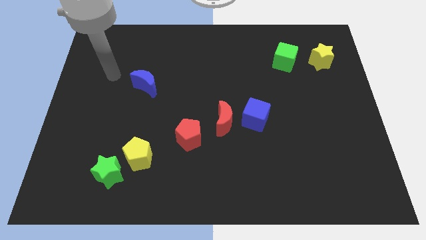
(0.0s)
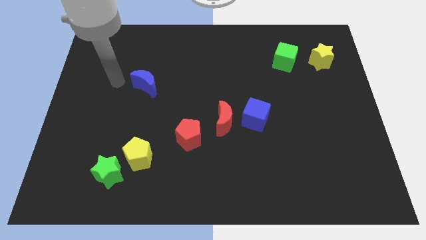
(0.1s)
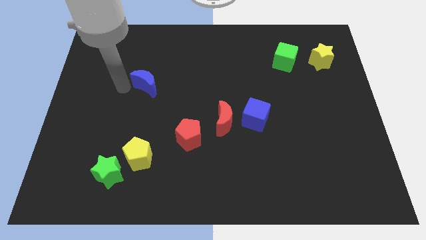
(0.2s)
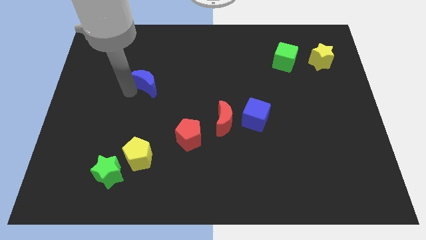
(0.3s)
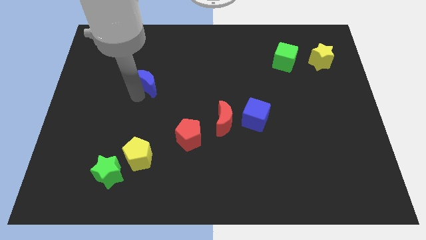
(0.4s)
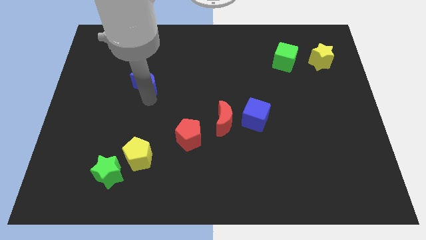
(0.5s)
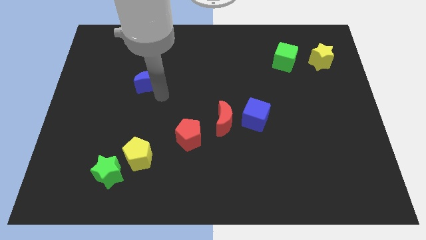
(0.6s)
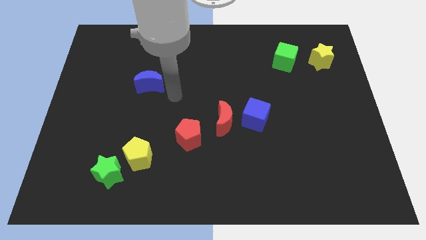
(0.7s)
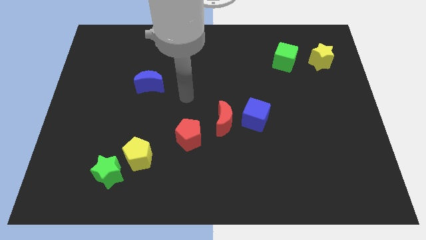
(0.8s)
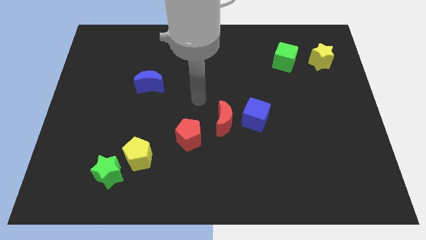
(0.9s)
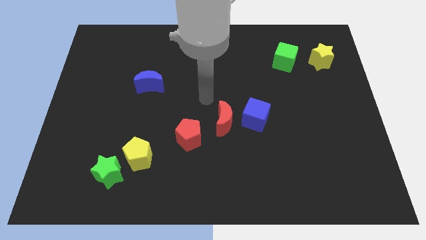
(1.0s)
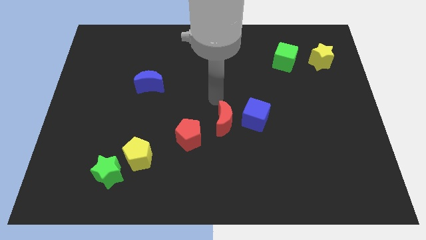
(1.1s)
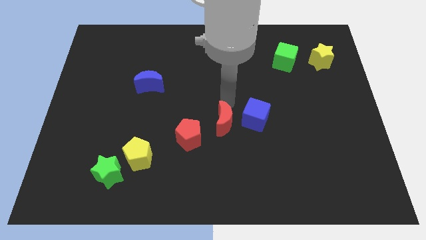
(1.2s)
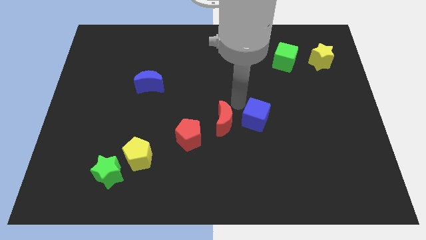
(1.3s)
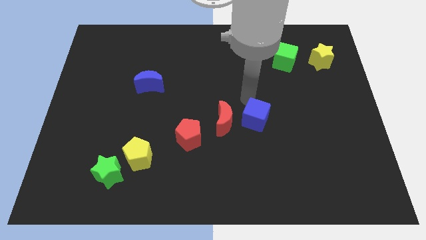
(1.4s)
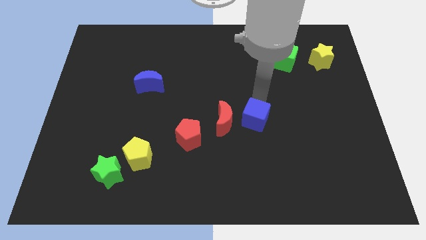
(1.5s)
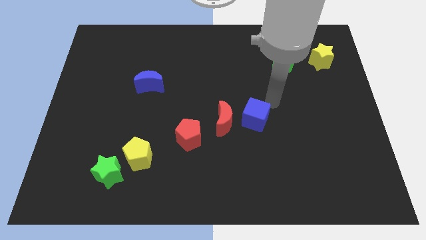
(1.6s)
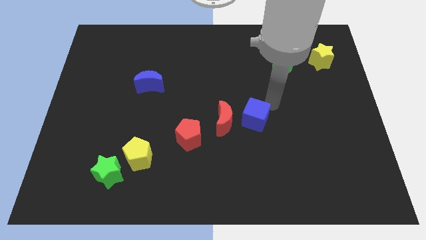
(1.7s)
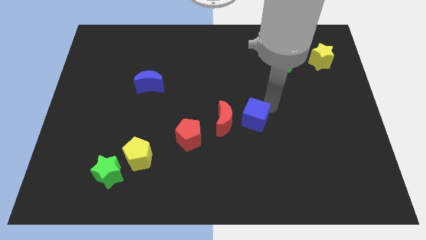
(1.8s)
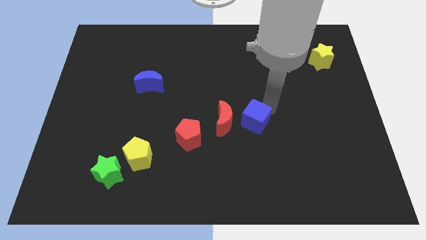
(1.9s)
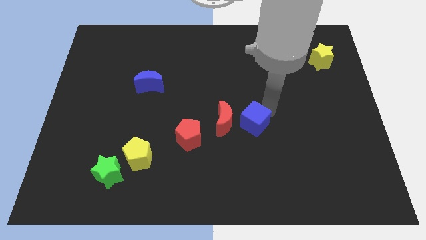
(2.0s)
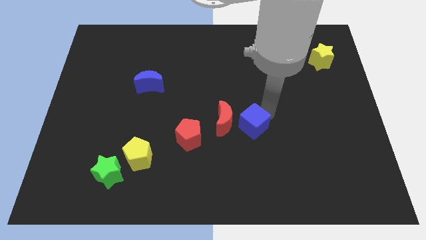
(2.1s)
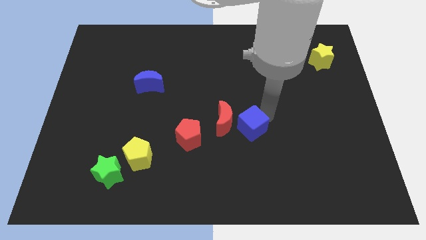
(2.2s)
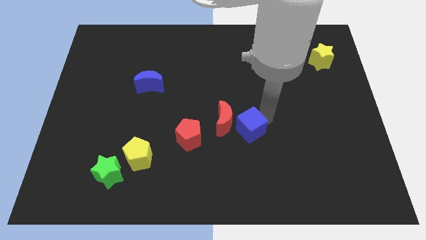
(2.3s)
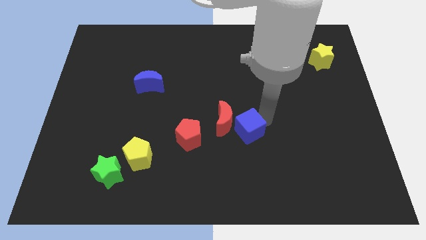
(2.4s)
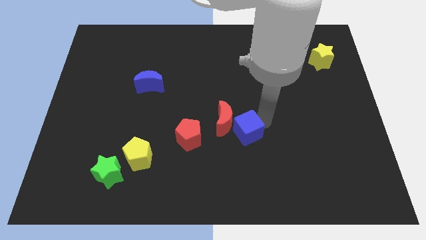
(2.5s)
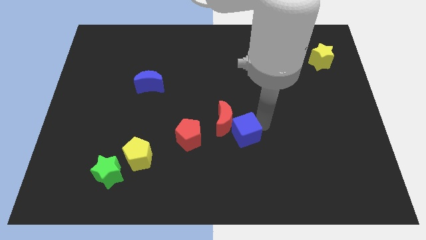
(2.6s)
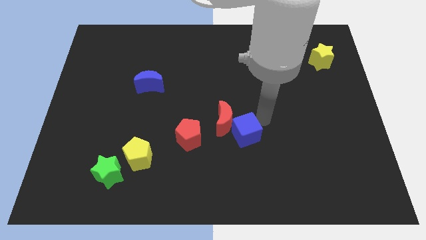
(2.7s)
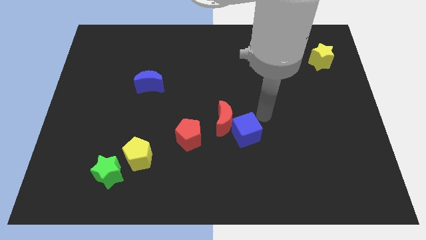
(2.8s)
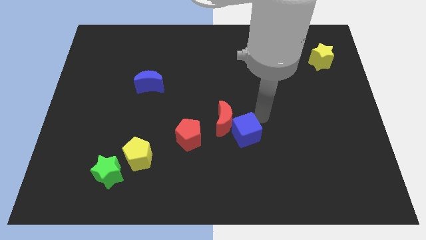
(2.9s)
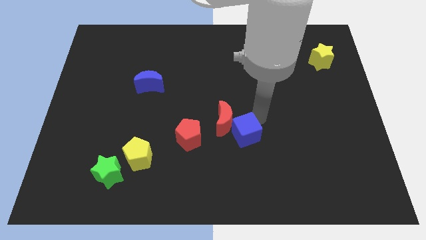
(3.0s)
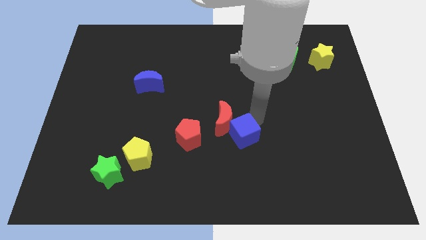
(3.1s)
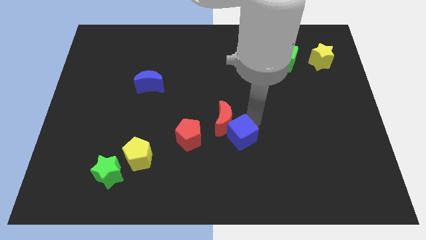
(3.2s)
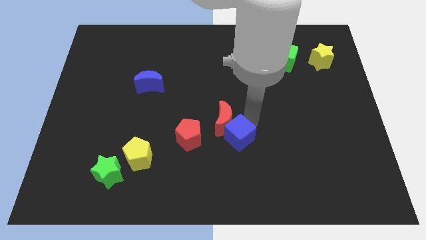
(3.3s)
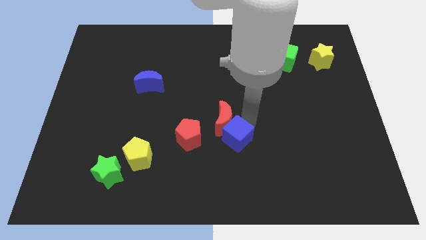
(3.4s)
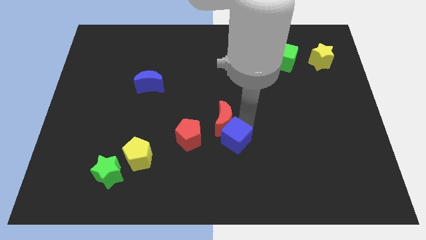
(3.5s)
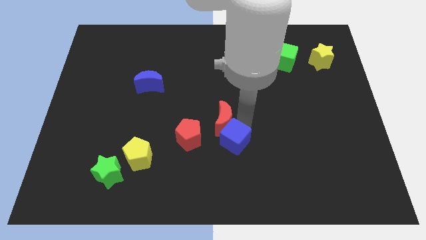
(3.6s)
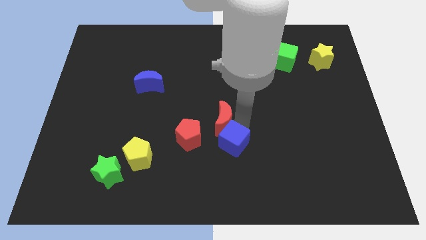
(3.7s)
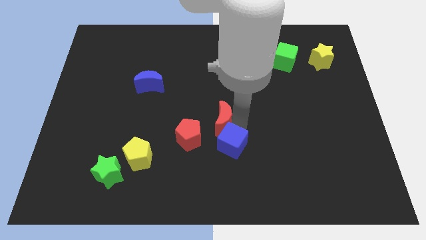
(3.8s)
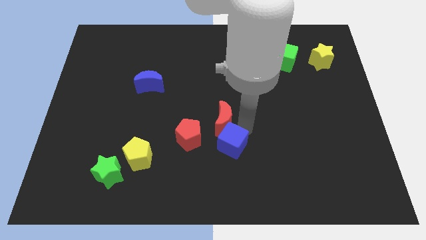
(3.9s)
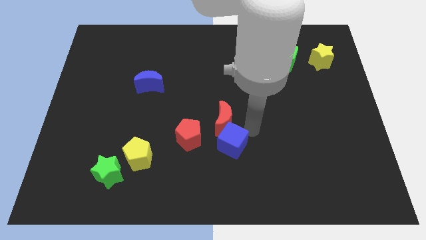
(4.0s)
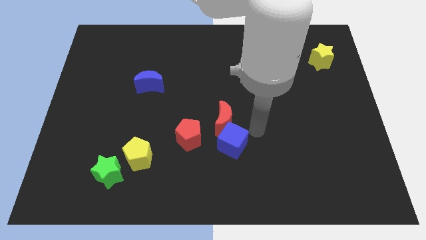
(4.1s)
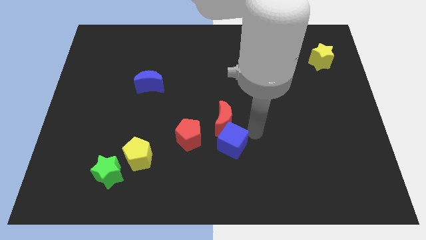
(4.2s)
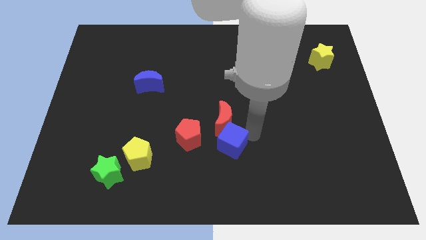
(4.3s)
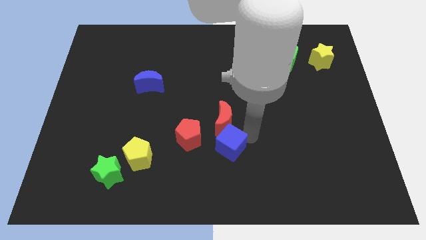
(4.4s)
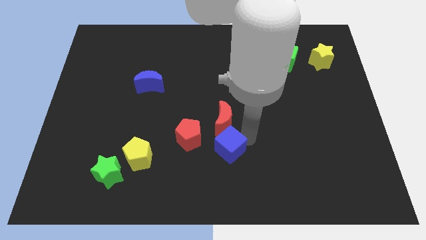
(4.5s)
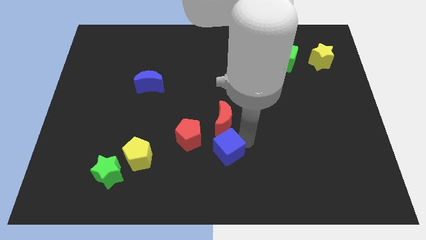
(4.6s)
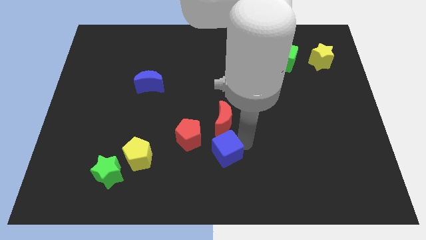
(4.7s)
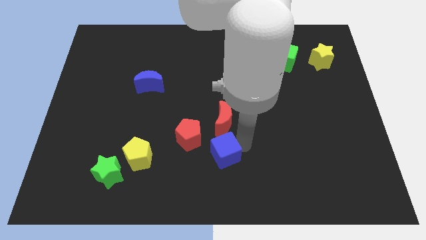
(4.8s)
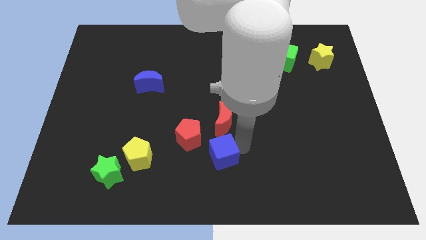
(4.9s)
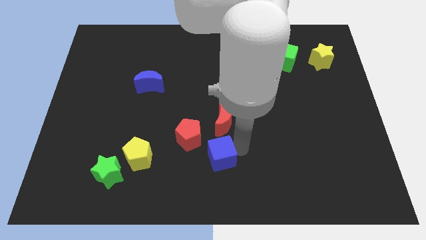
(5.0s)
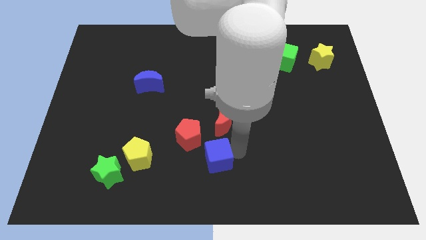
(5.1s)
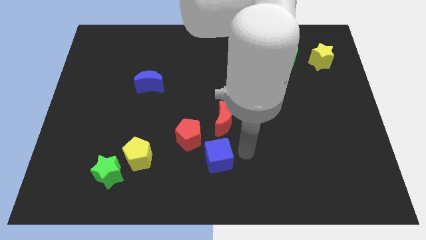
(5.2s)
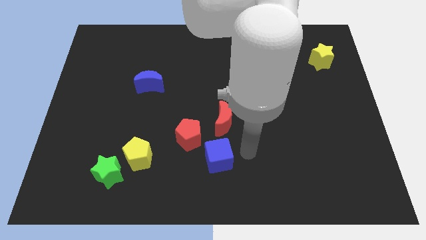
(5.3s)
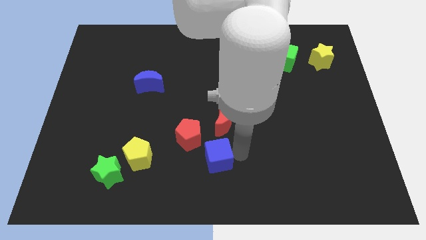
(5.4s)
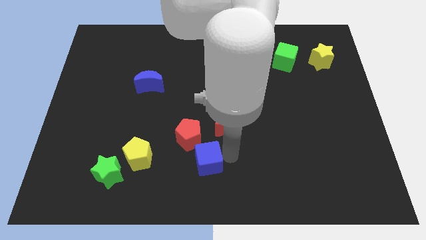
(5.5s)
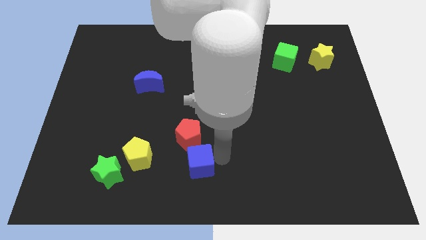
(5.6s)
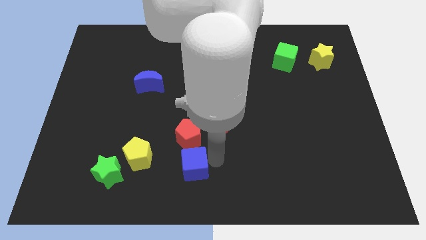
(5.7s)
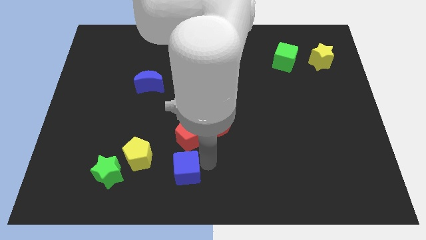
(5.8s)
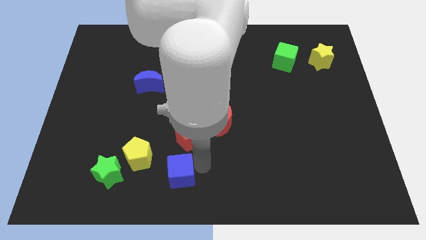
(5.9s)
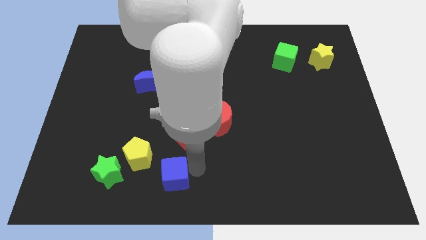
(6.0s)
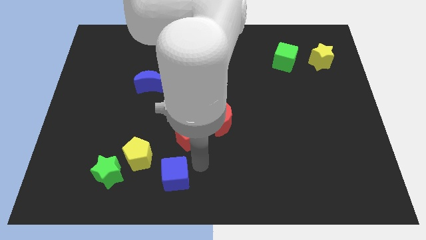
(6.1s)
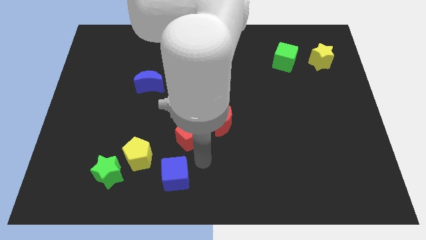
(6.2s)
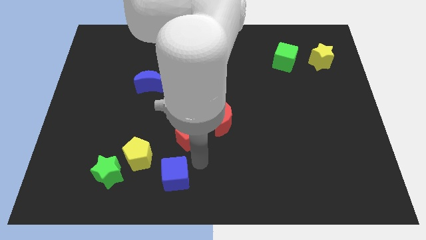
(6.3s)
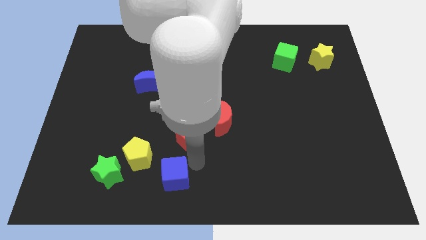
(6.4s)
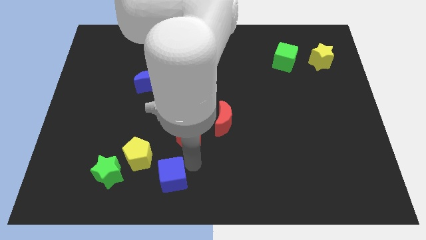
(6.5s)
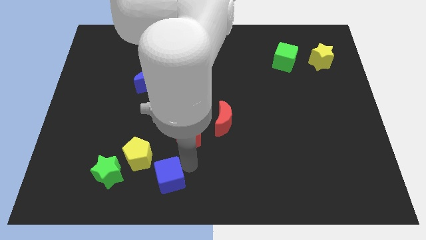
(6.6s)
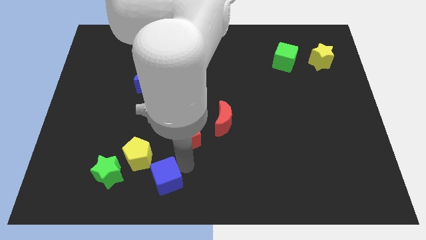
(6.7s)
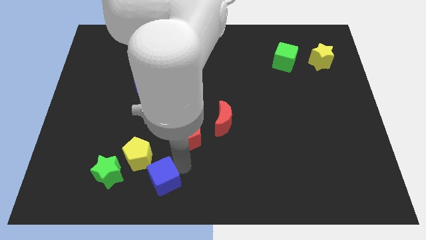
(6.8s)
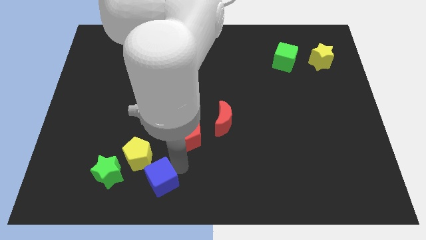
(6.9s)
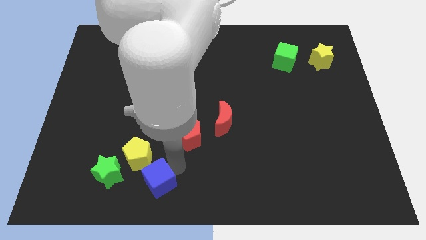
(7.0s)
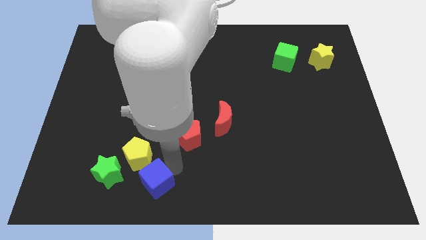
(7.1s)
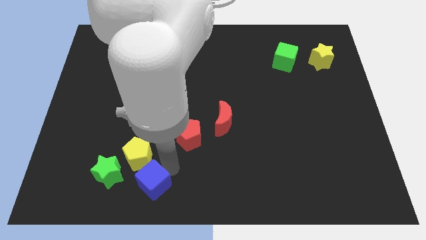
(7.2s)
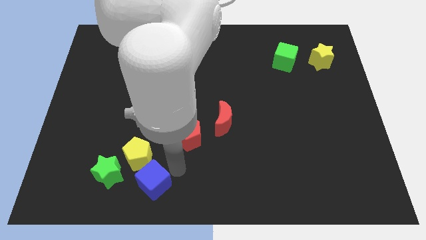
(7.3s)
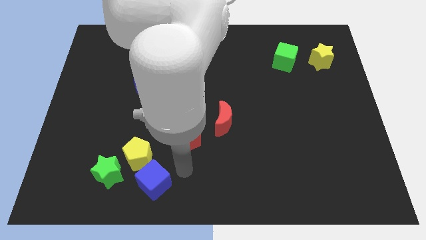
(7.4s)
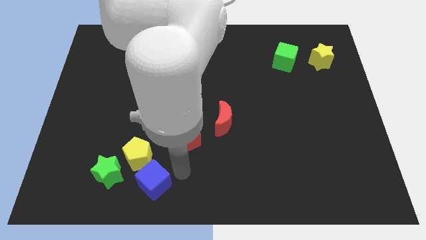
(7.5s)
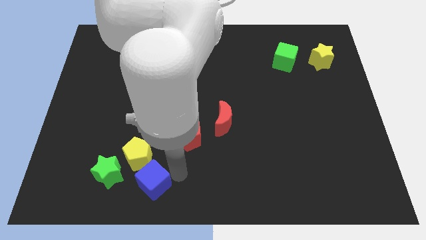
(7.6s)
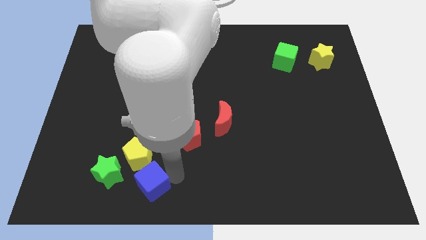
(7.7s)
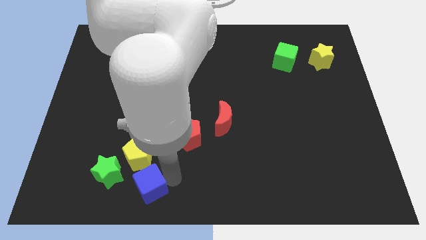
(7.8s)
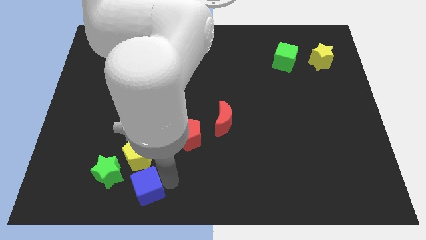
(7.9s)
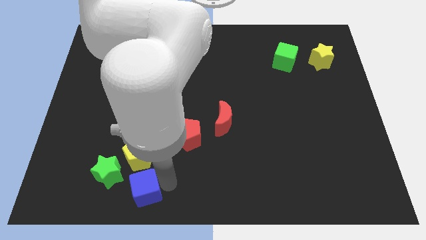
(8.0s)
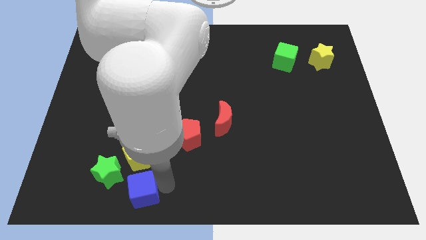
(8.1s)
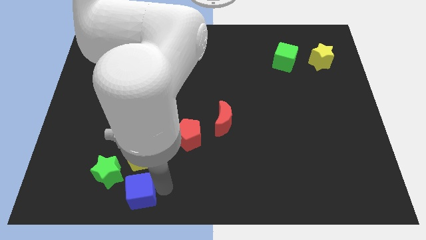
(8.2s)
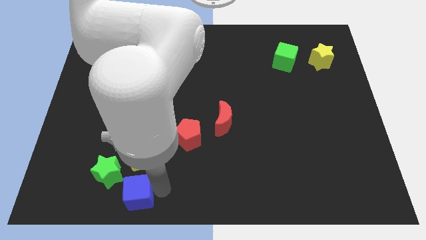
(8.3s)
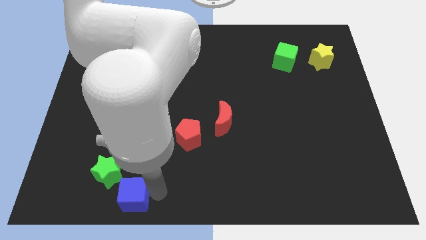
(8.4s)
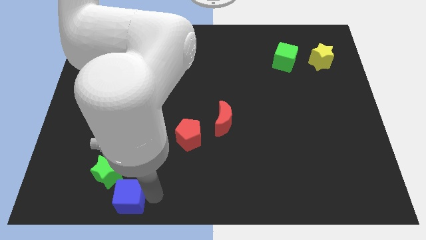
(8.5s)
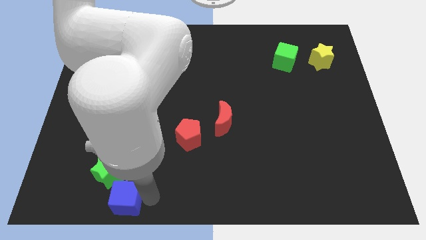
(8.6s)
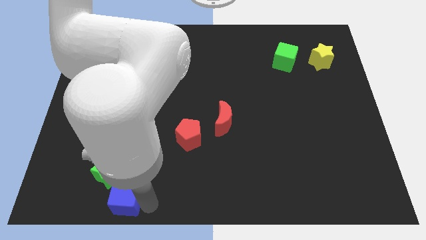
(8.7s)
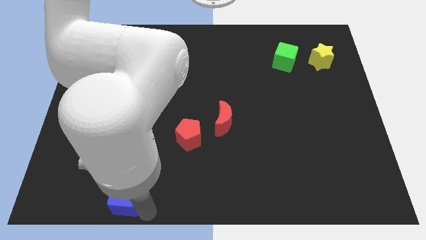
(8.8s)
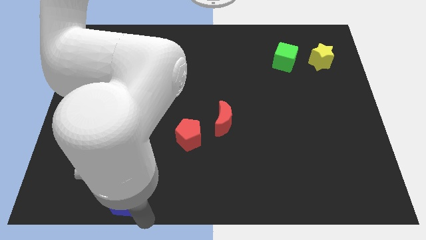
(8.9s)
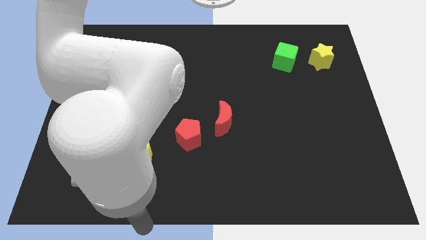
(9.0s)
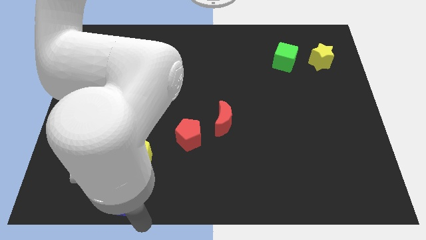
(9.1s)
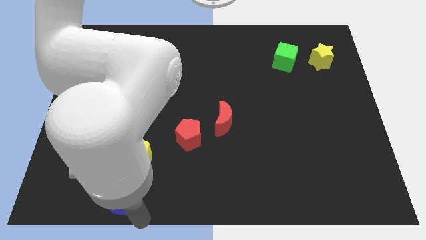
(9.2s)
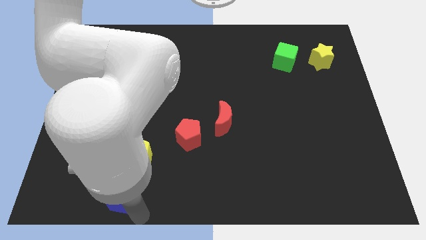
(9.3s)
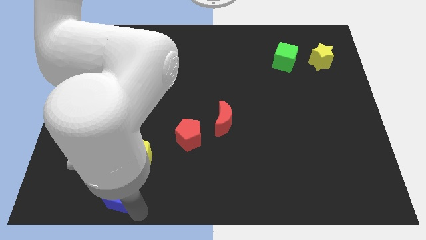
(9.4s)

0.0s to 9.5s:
slide the blue cube next to the green star
